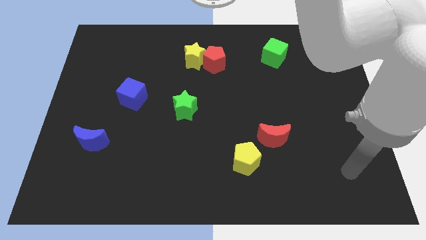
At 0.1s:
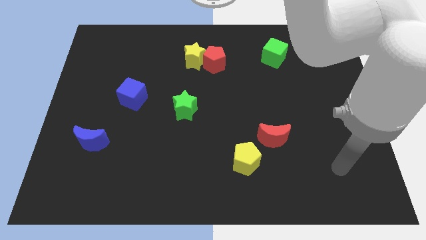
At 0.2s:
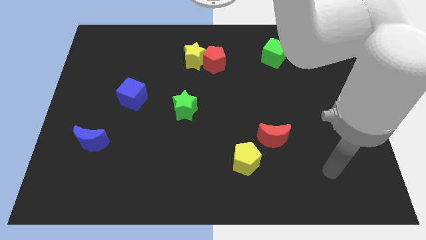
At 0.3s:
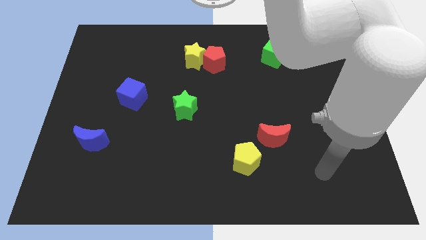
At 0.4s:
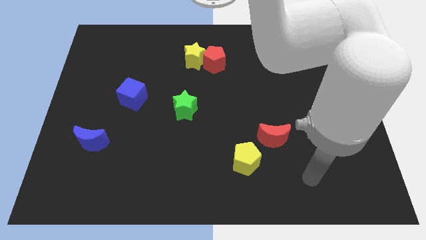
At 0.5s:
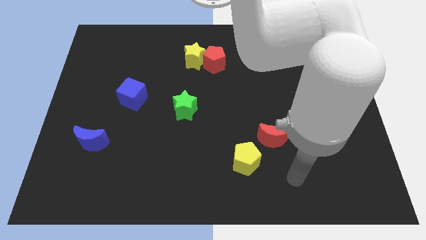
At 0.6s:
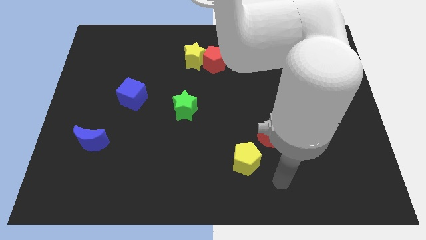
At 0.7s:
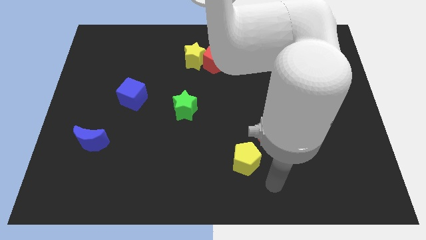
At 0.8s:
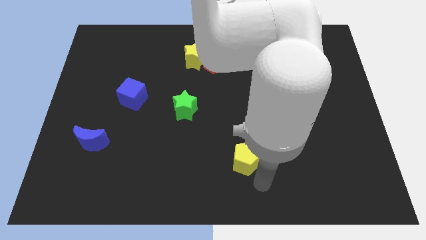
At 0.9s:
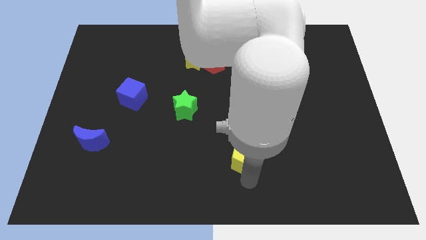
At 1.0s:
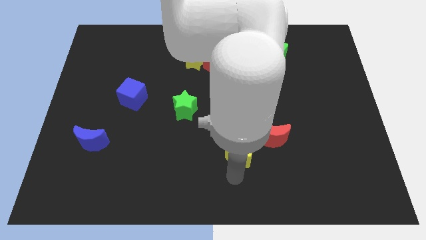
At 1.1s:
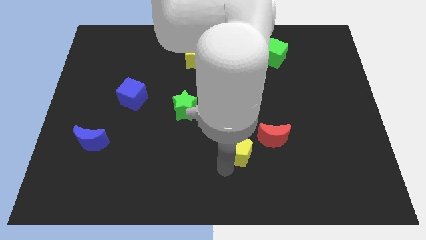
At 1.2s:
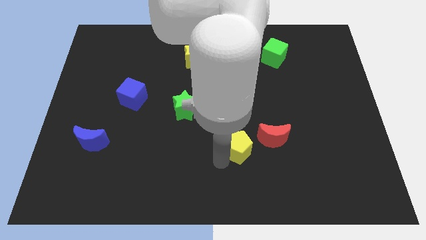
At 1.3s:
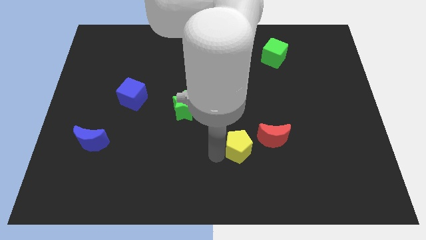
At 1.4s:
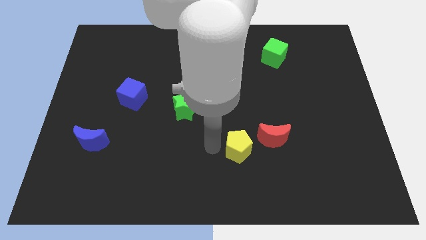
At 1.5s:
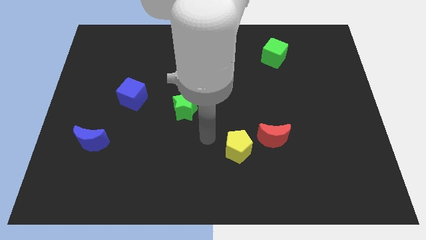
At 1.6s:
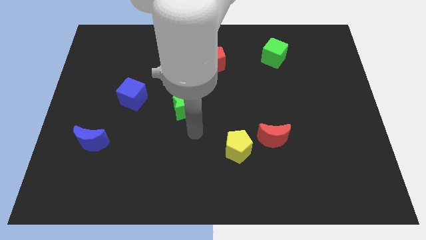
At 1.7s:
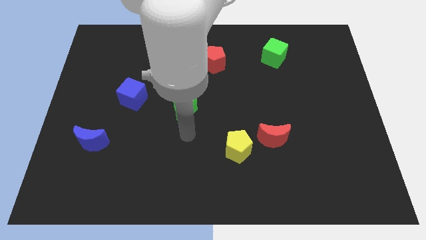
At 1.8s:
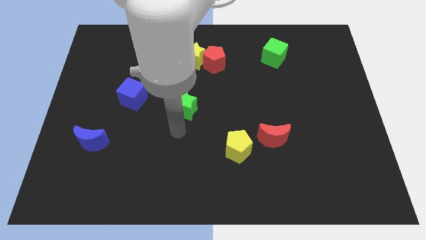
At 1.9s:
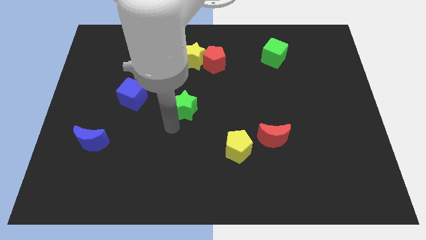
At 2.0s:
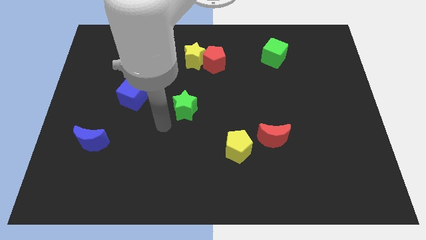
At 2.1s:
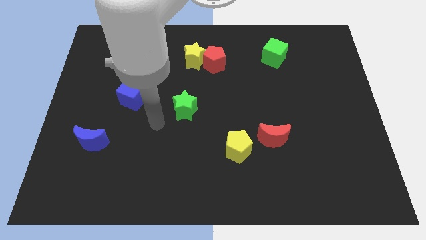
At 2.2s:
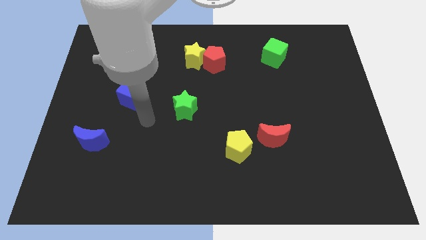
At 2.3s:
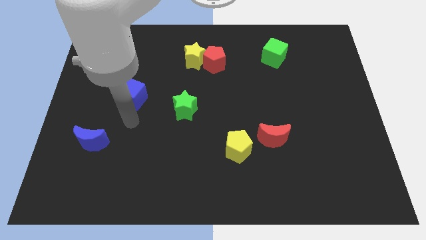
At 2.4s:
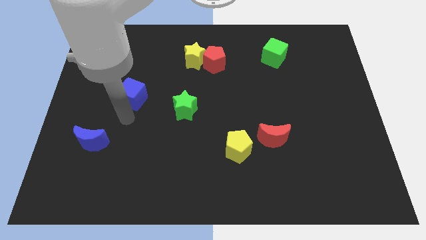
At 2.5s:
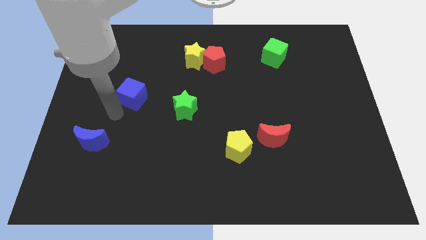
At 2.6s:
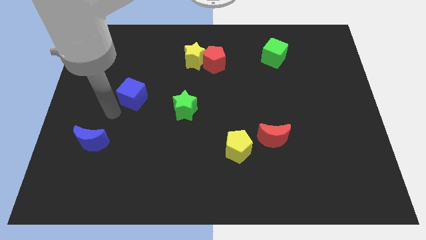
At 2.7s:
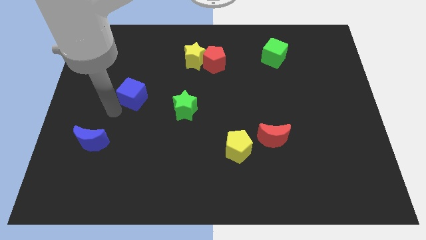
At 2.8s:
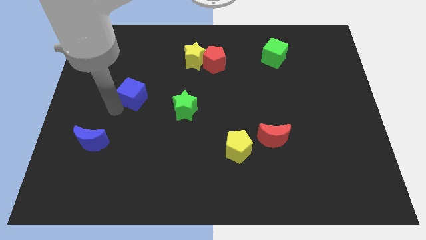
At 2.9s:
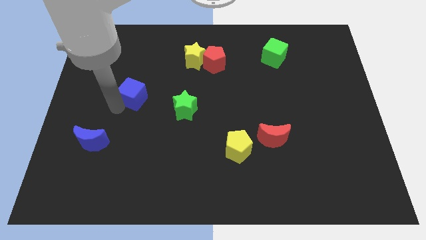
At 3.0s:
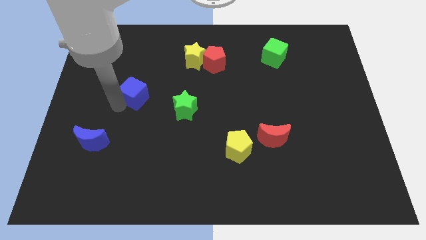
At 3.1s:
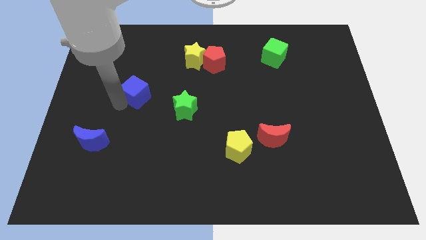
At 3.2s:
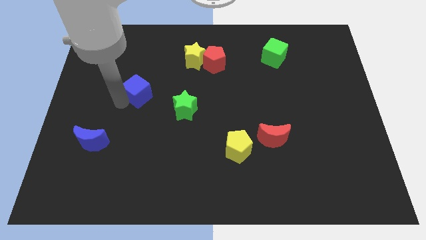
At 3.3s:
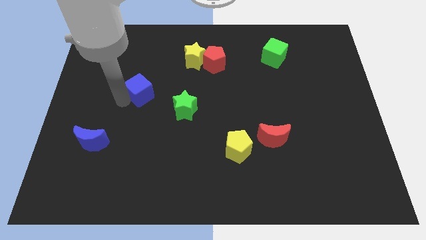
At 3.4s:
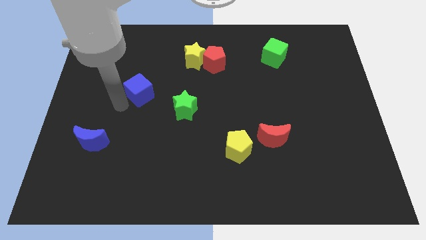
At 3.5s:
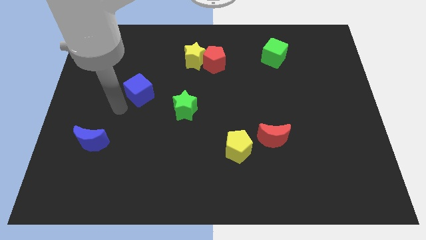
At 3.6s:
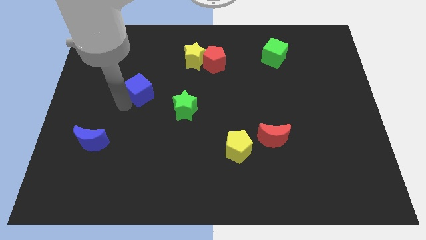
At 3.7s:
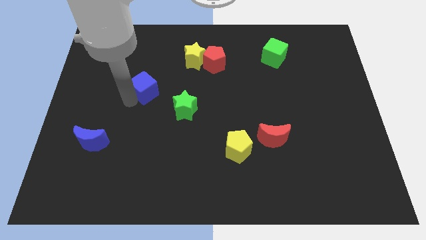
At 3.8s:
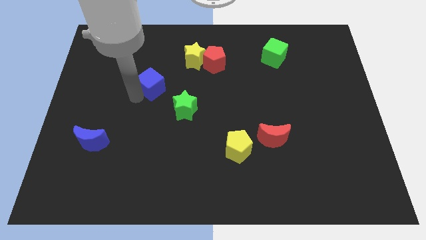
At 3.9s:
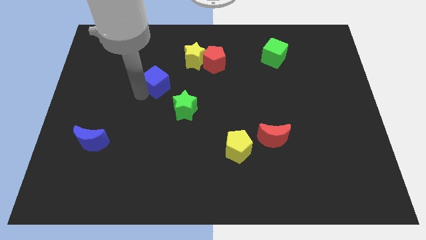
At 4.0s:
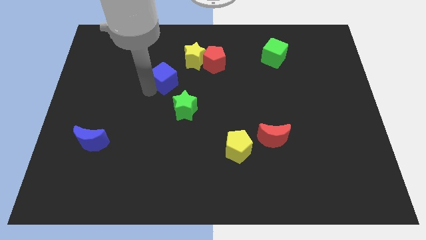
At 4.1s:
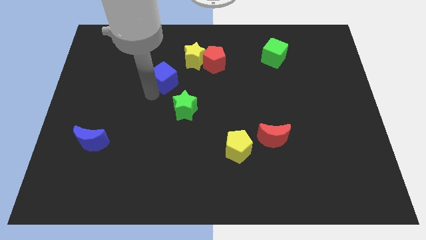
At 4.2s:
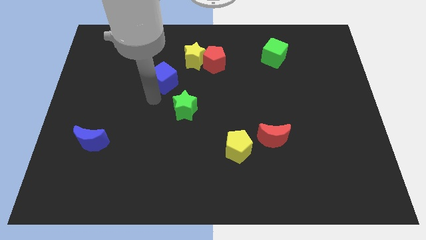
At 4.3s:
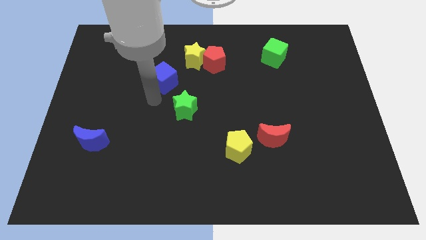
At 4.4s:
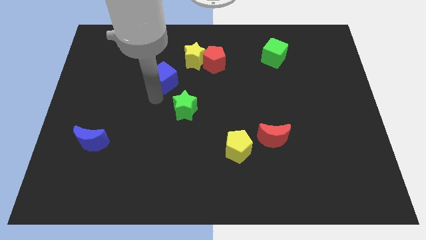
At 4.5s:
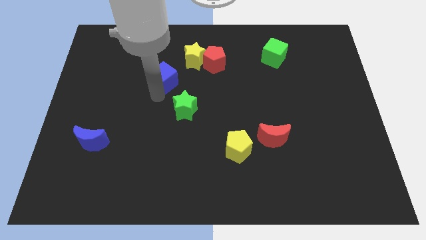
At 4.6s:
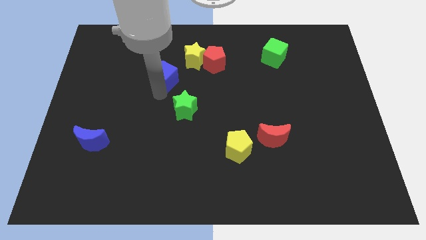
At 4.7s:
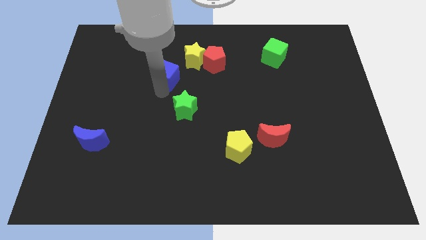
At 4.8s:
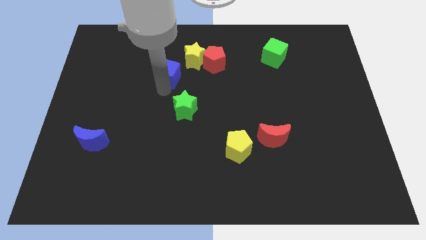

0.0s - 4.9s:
move the blue cube left of the red pentagon

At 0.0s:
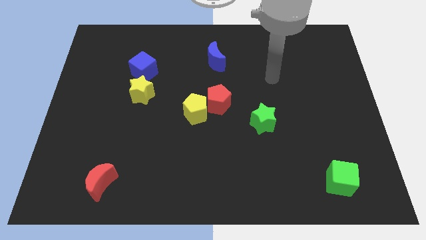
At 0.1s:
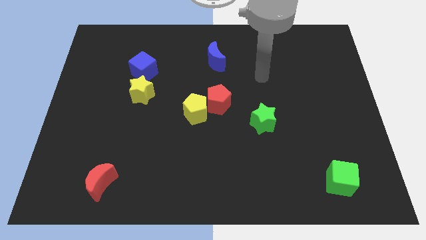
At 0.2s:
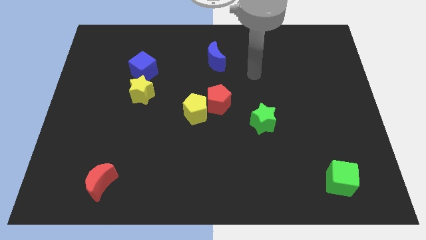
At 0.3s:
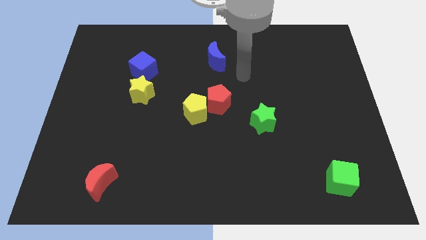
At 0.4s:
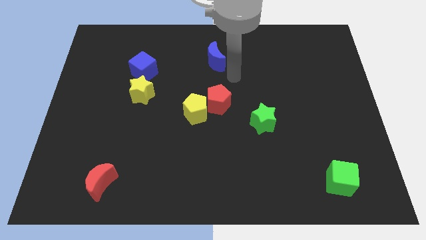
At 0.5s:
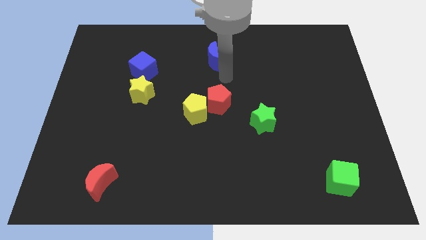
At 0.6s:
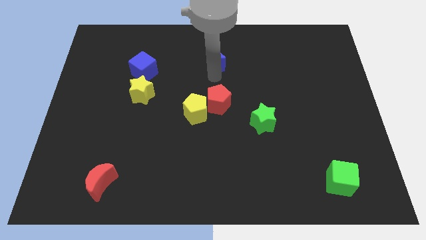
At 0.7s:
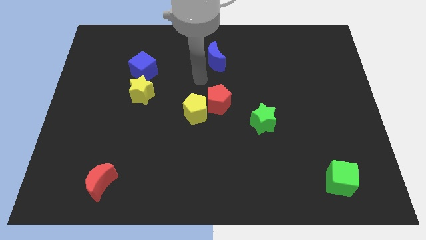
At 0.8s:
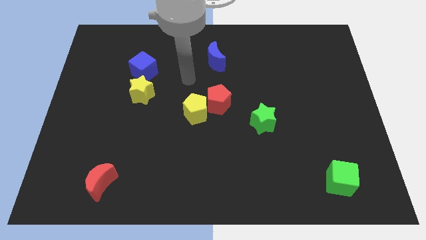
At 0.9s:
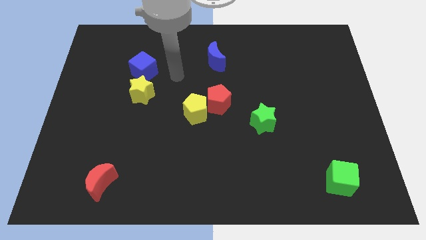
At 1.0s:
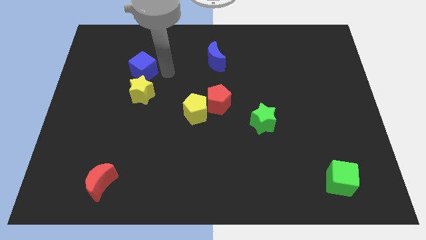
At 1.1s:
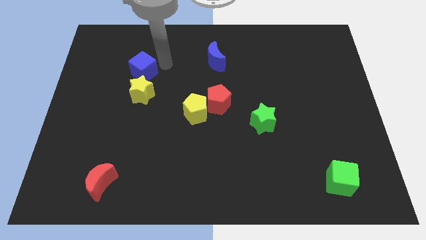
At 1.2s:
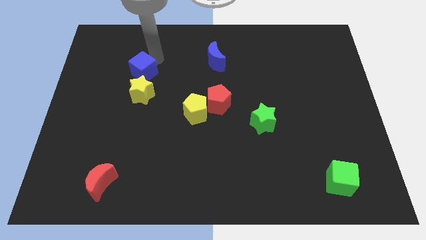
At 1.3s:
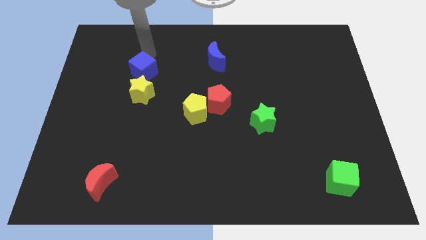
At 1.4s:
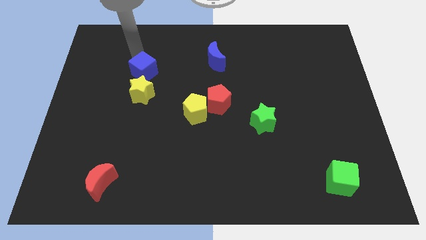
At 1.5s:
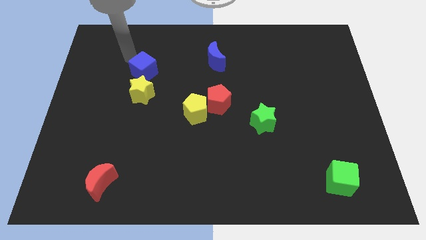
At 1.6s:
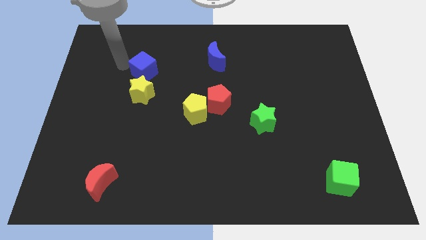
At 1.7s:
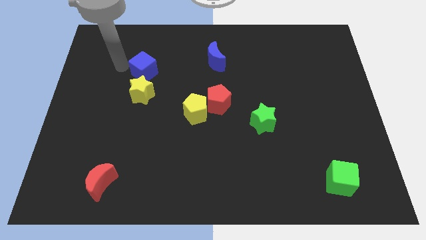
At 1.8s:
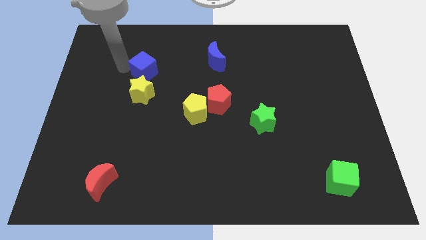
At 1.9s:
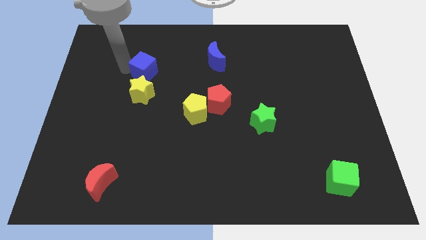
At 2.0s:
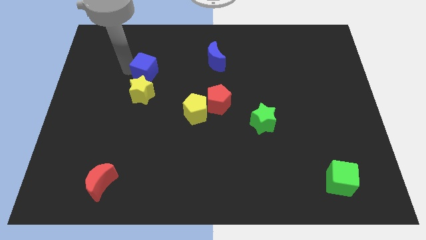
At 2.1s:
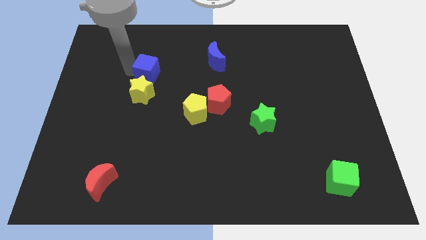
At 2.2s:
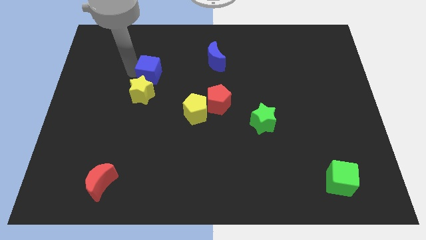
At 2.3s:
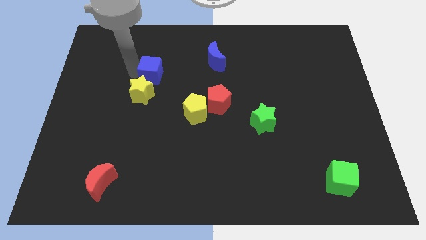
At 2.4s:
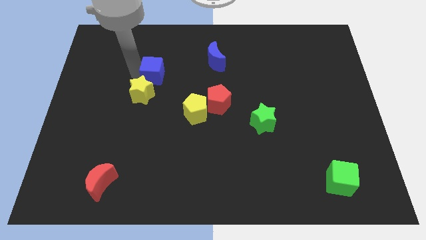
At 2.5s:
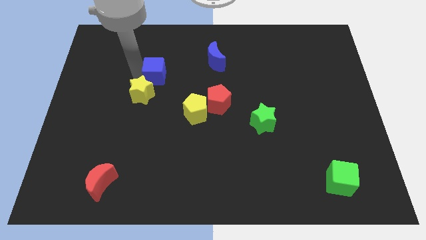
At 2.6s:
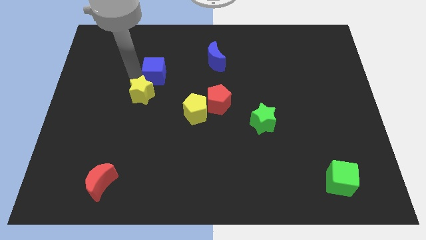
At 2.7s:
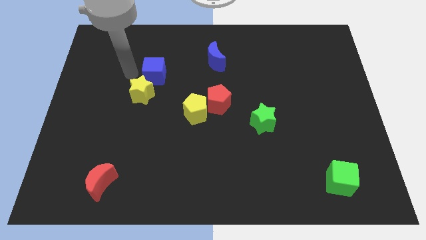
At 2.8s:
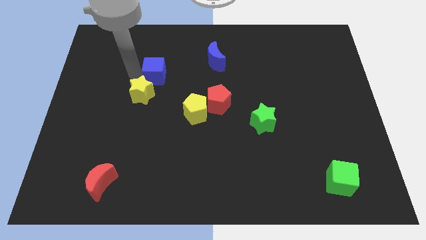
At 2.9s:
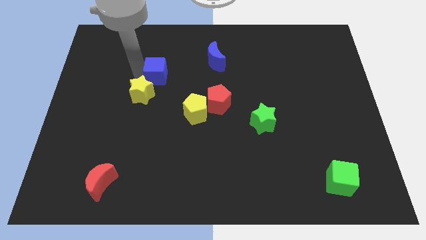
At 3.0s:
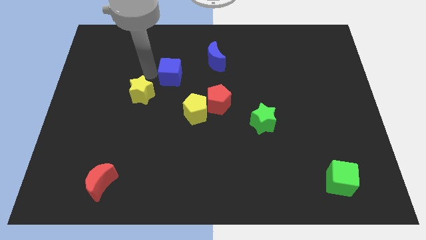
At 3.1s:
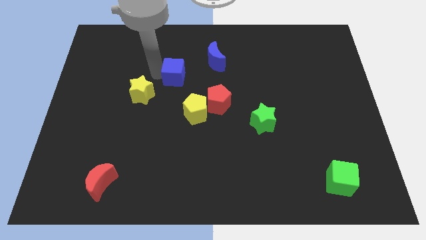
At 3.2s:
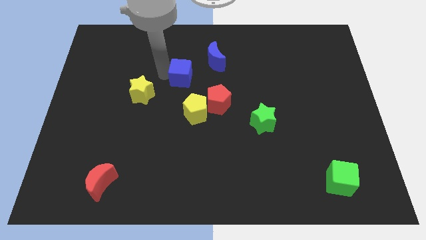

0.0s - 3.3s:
push the blue cube above the yellow pentagon

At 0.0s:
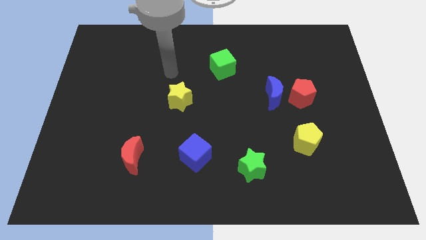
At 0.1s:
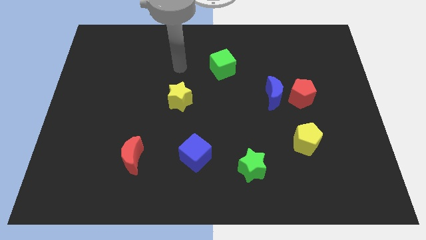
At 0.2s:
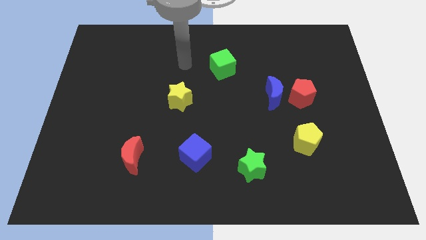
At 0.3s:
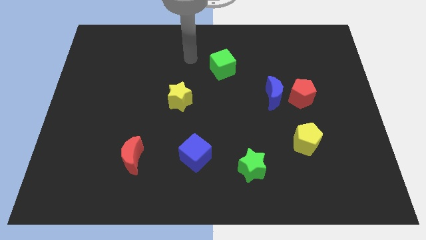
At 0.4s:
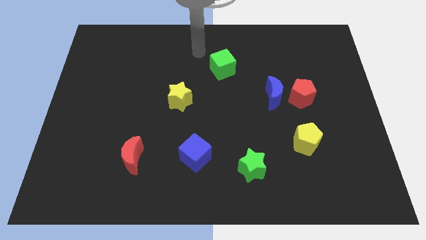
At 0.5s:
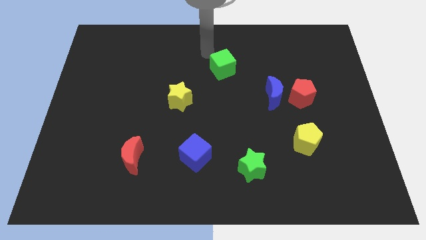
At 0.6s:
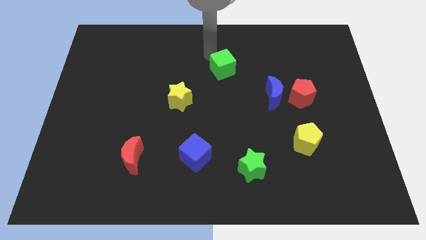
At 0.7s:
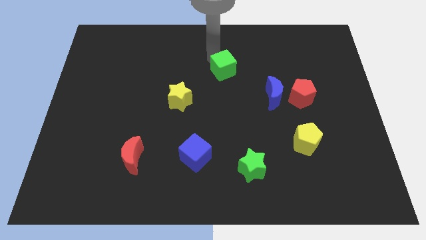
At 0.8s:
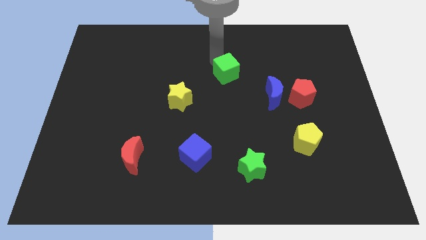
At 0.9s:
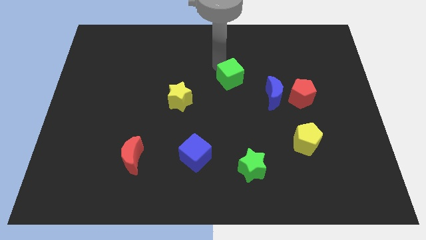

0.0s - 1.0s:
push the green cube to the top left side of the blue moon
